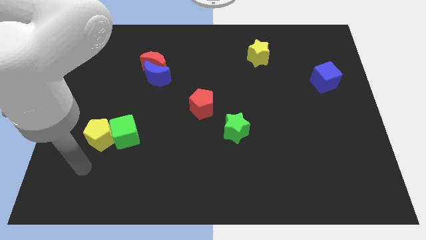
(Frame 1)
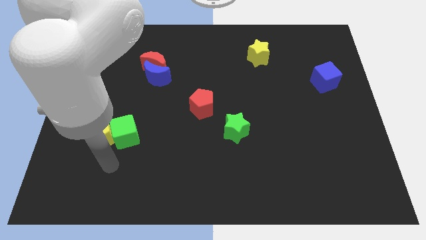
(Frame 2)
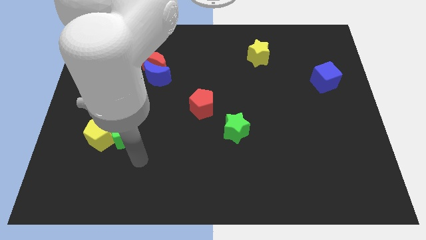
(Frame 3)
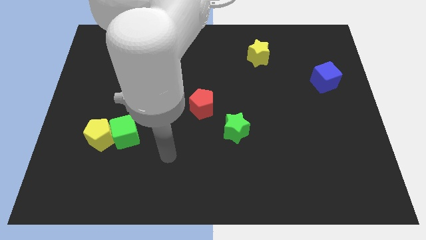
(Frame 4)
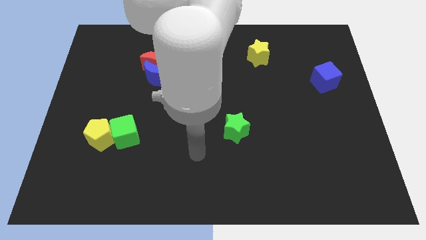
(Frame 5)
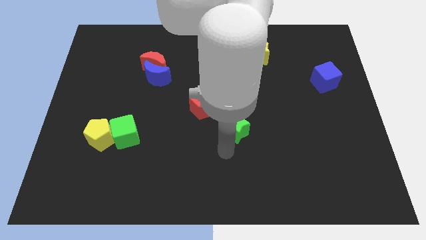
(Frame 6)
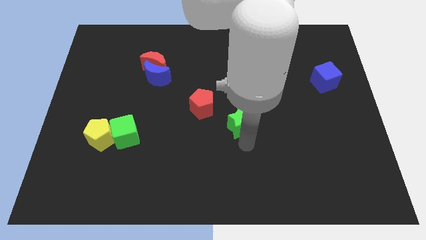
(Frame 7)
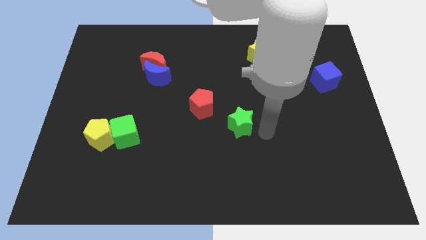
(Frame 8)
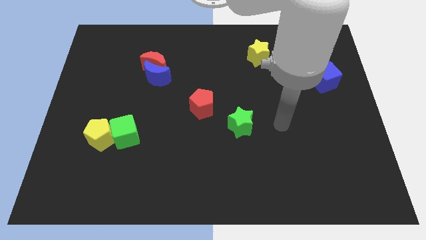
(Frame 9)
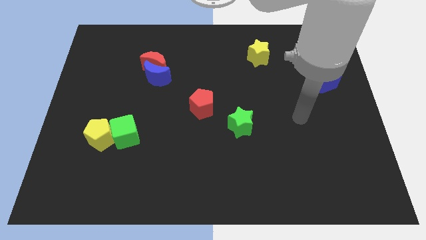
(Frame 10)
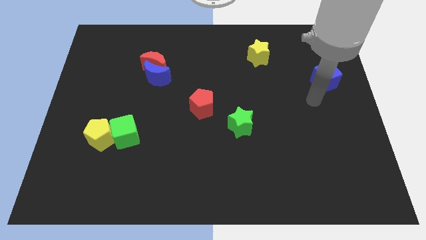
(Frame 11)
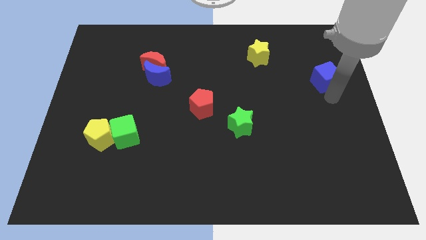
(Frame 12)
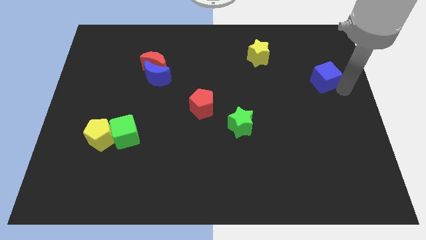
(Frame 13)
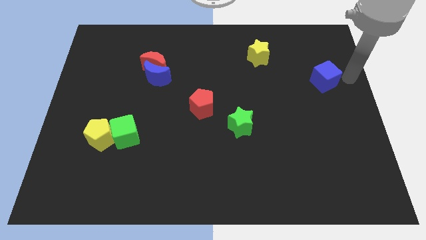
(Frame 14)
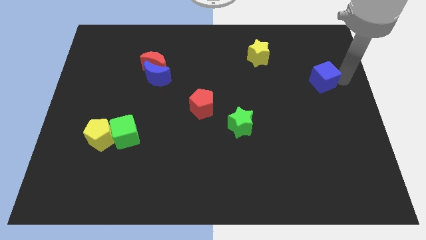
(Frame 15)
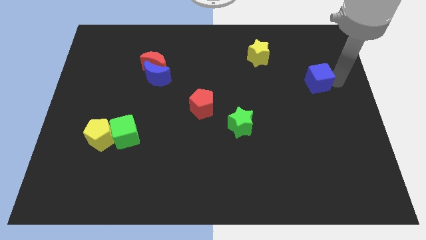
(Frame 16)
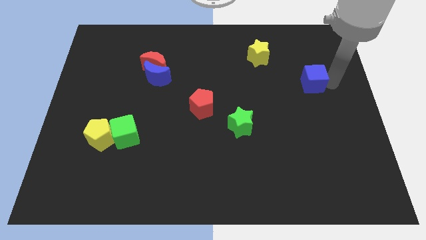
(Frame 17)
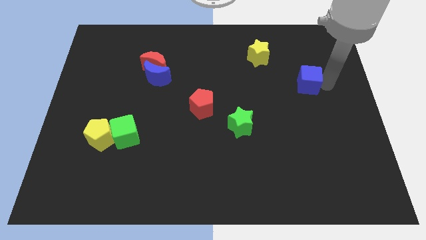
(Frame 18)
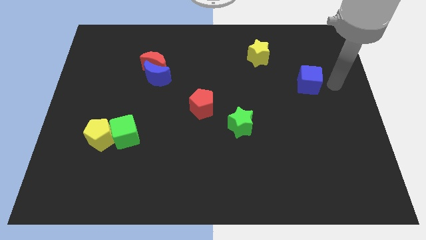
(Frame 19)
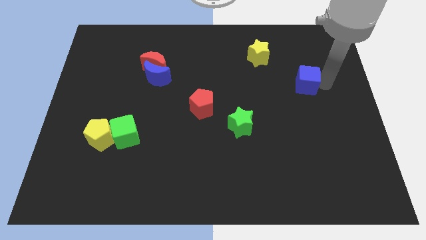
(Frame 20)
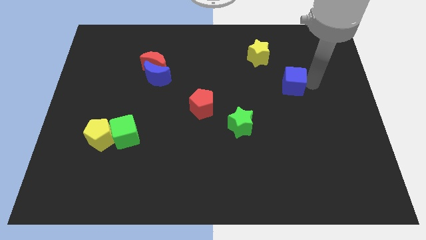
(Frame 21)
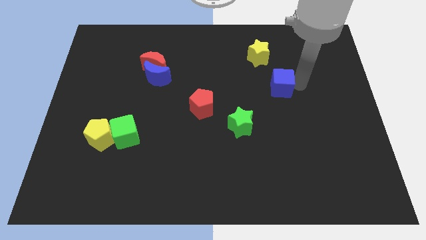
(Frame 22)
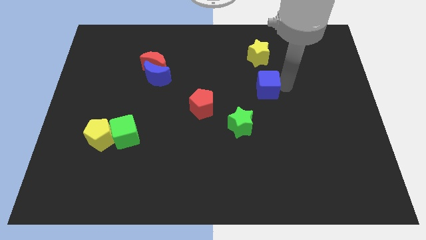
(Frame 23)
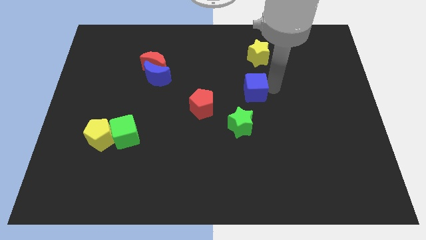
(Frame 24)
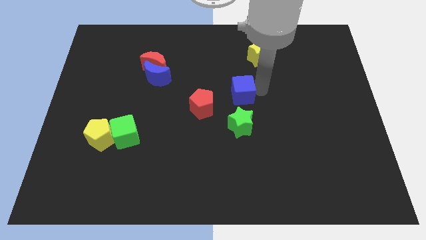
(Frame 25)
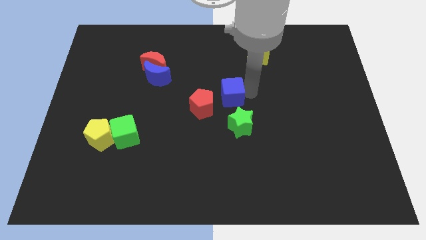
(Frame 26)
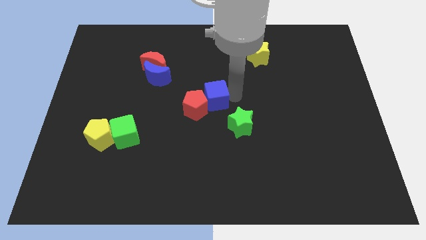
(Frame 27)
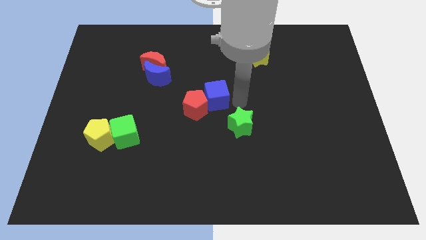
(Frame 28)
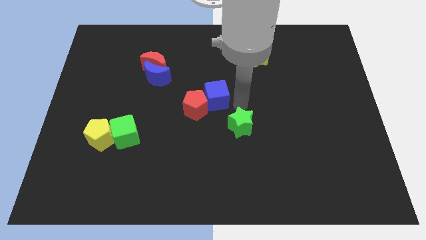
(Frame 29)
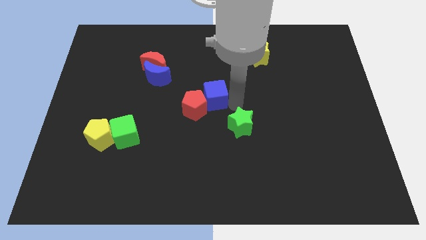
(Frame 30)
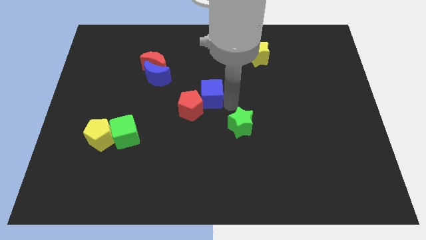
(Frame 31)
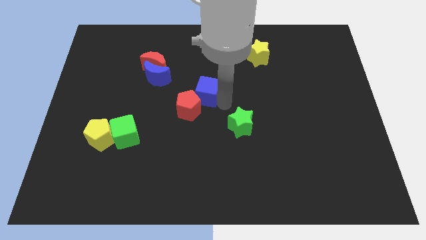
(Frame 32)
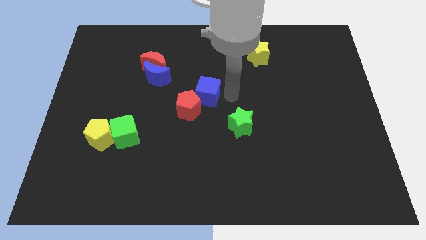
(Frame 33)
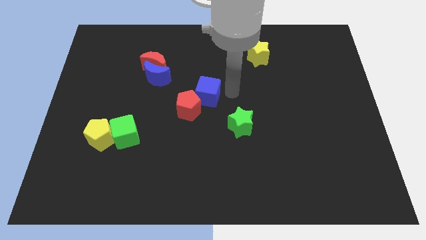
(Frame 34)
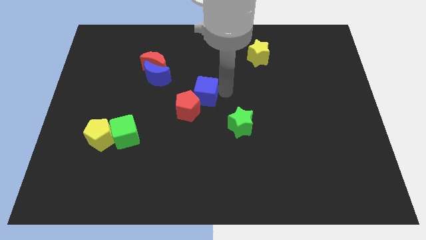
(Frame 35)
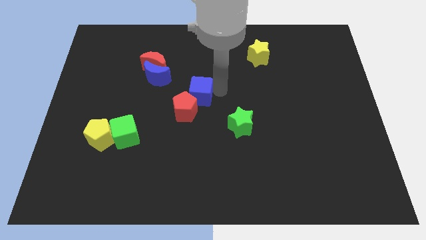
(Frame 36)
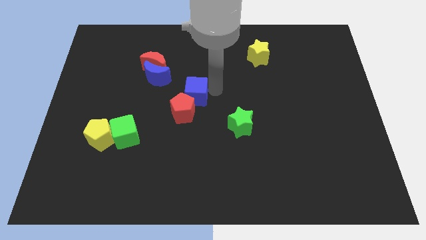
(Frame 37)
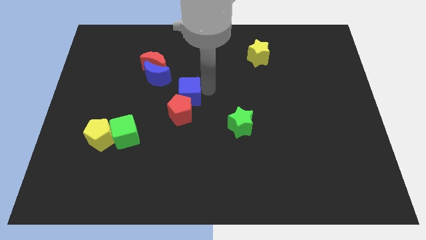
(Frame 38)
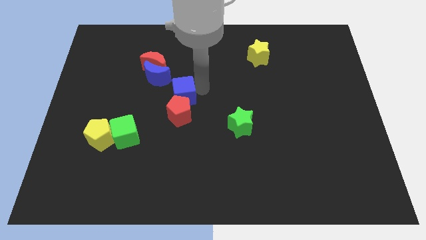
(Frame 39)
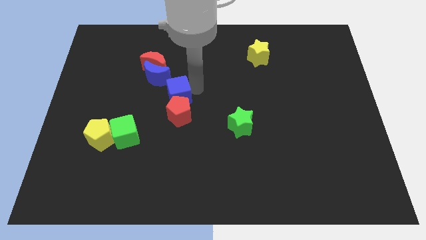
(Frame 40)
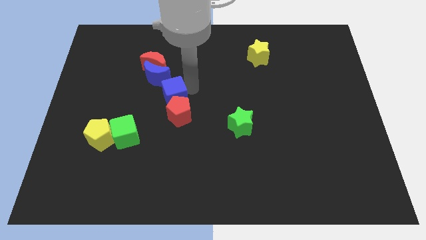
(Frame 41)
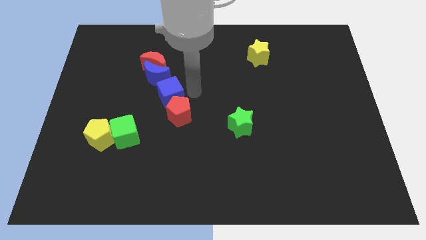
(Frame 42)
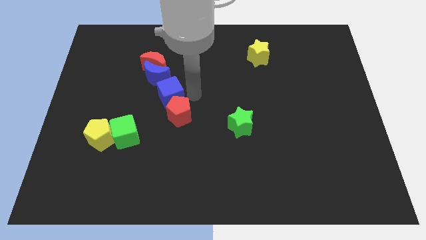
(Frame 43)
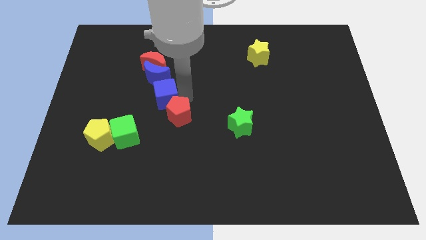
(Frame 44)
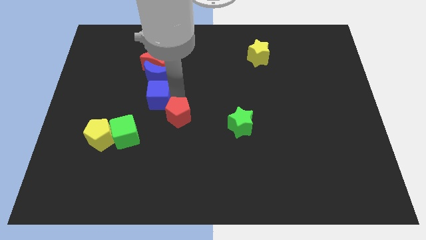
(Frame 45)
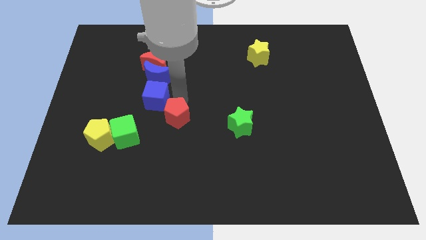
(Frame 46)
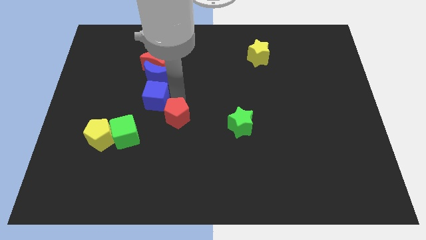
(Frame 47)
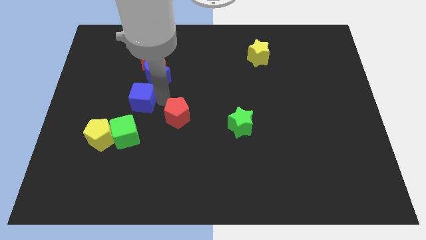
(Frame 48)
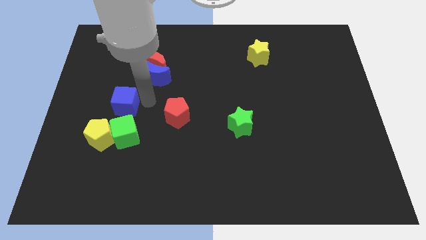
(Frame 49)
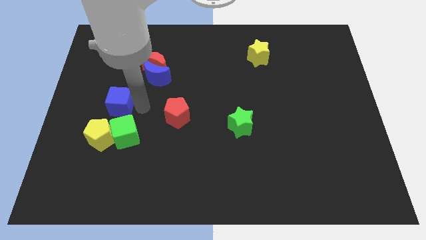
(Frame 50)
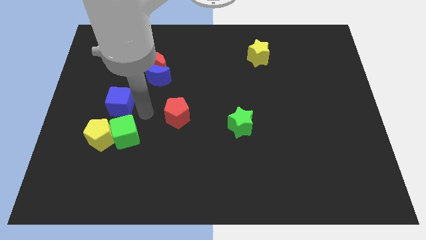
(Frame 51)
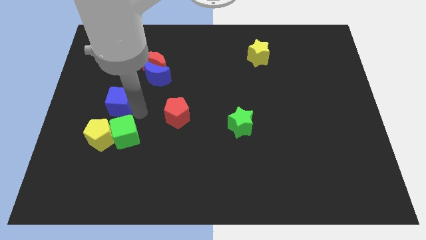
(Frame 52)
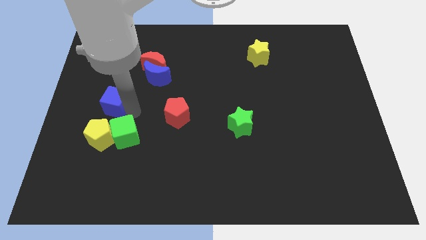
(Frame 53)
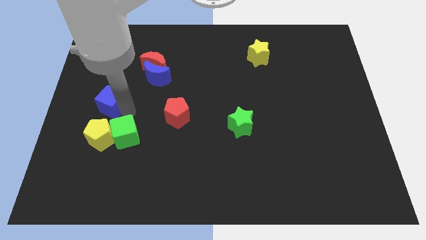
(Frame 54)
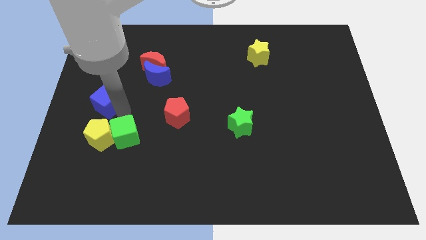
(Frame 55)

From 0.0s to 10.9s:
put the blue cube to the center left

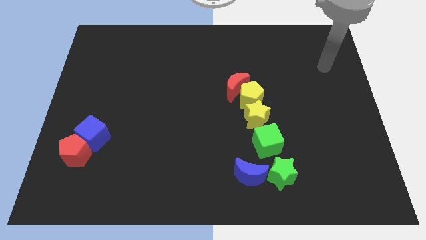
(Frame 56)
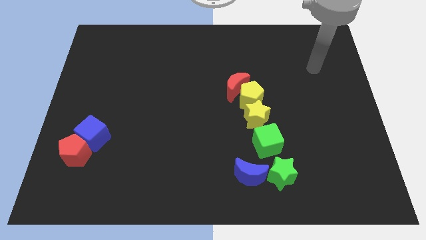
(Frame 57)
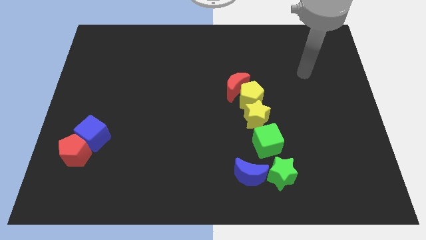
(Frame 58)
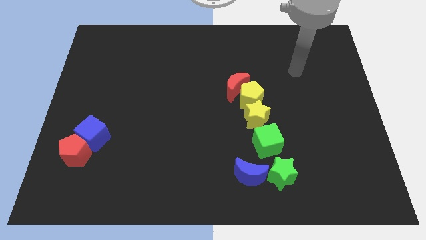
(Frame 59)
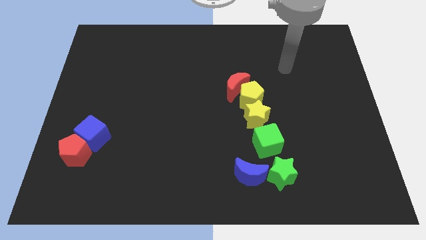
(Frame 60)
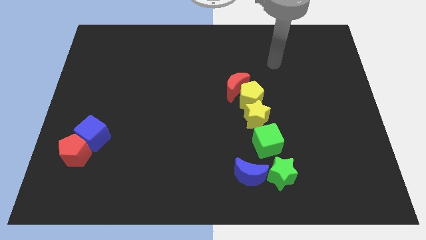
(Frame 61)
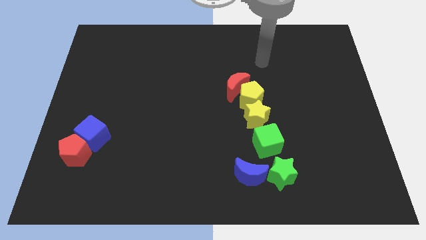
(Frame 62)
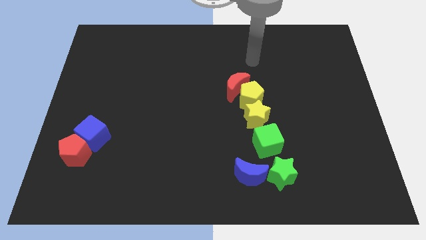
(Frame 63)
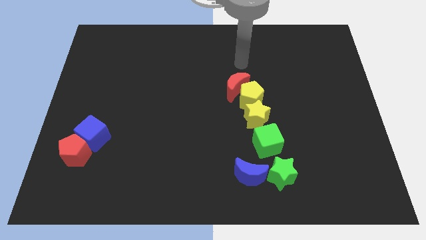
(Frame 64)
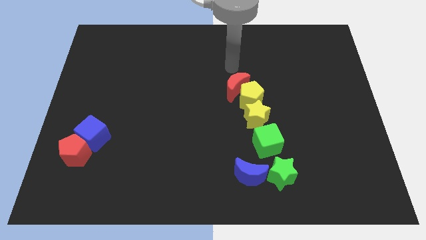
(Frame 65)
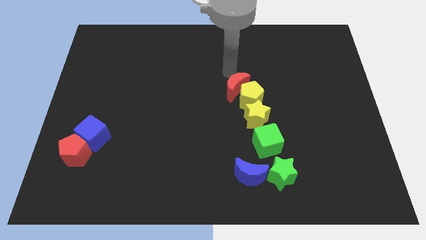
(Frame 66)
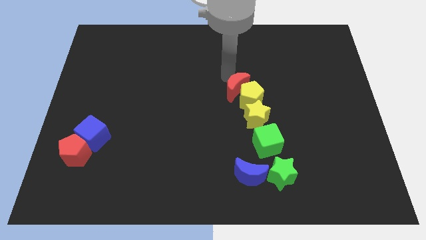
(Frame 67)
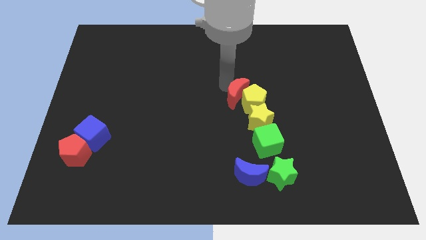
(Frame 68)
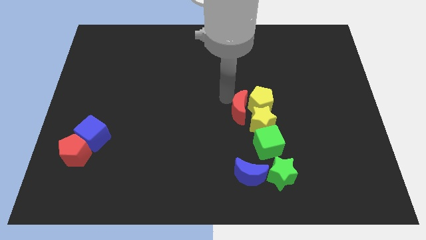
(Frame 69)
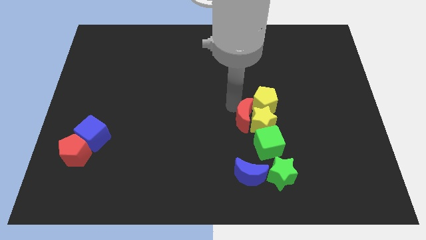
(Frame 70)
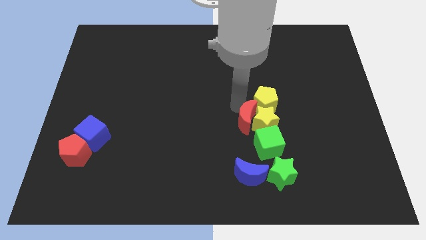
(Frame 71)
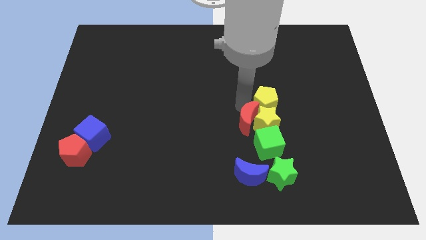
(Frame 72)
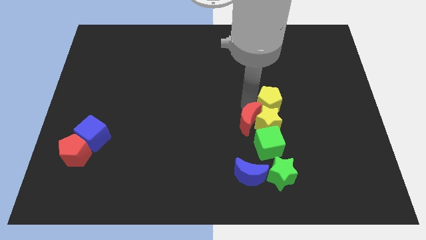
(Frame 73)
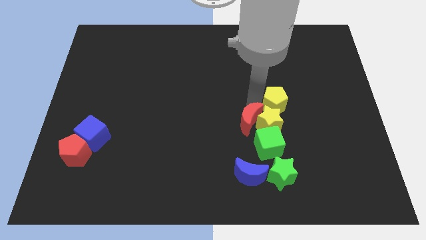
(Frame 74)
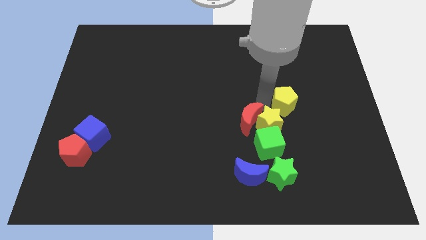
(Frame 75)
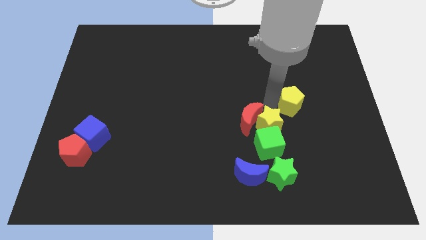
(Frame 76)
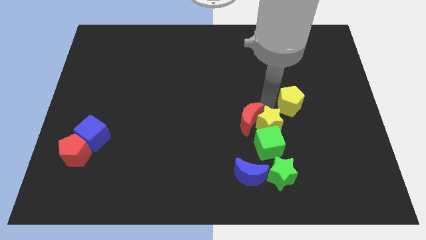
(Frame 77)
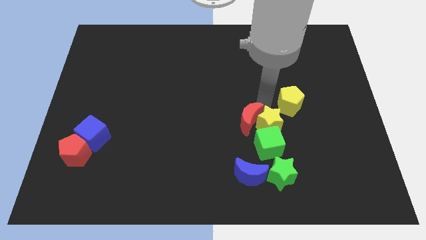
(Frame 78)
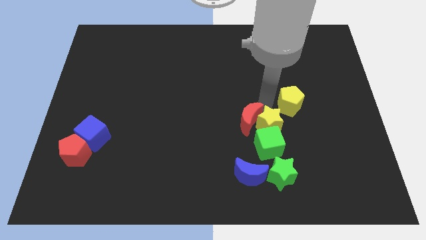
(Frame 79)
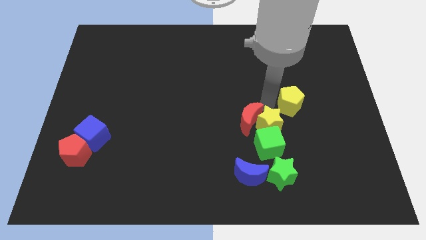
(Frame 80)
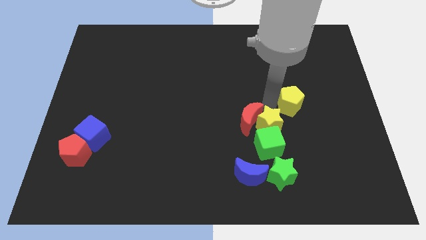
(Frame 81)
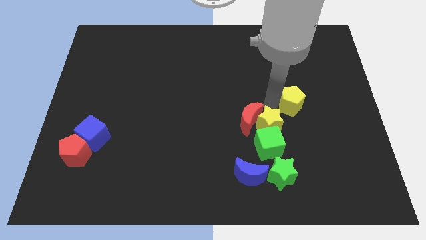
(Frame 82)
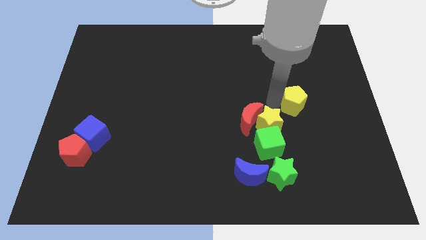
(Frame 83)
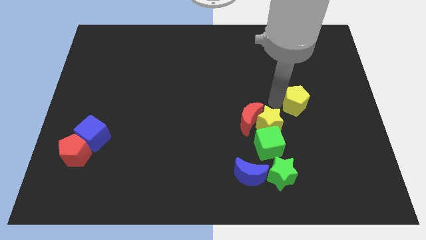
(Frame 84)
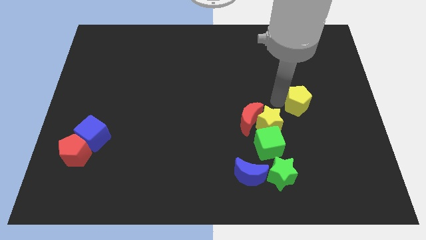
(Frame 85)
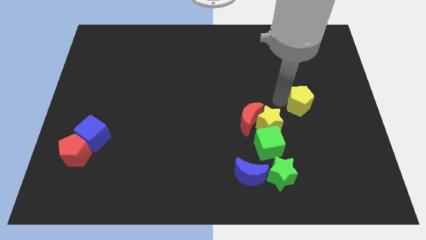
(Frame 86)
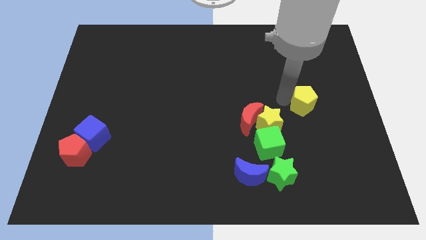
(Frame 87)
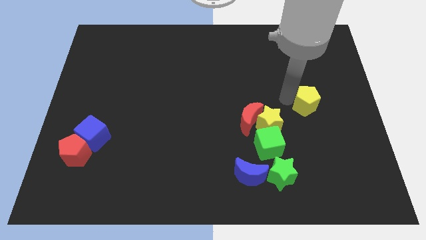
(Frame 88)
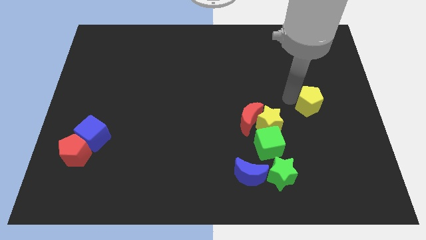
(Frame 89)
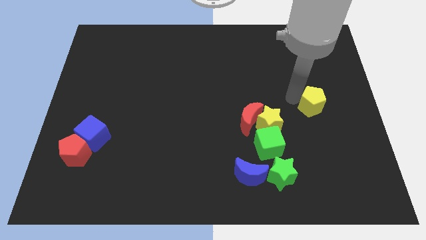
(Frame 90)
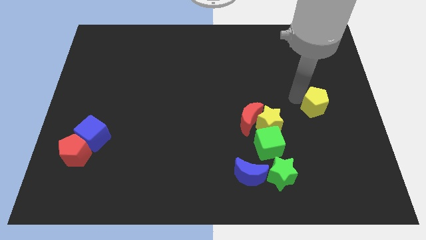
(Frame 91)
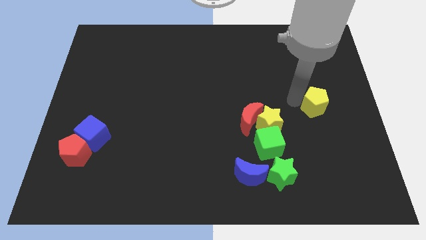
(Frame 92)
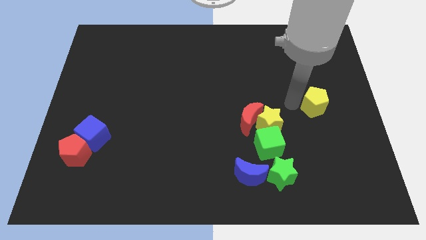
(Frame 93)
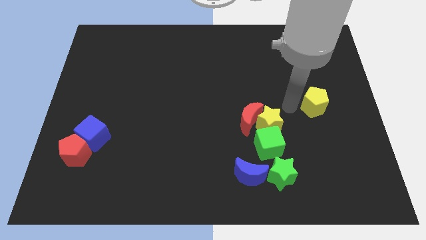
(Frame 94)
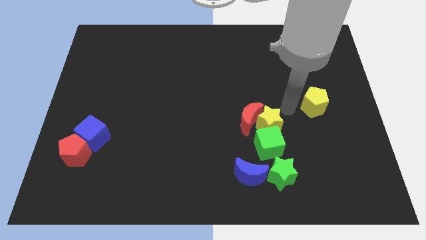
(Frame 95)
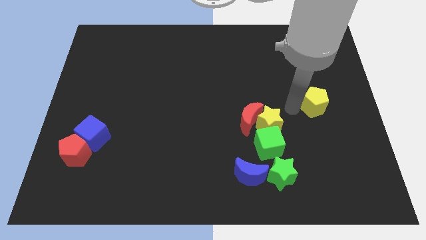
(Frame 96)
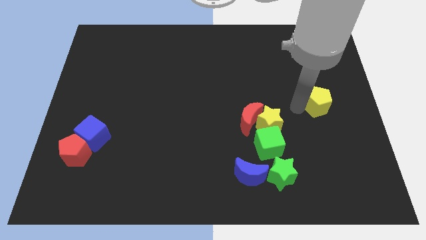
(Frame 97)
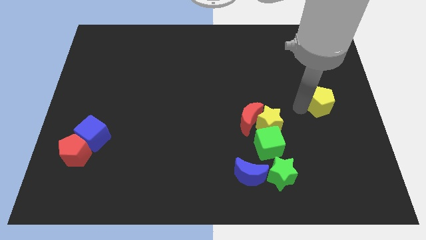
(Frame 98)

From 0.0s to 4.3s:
slide the yellow pentagon to the center right
